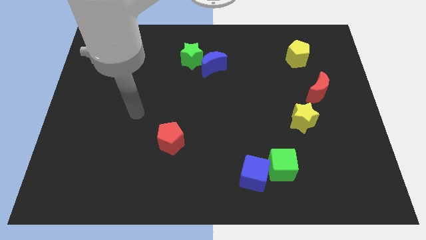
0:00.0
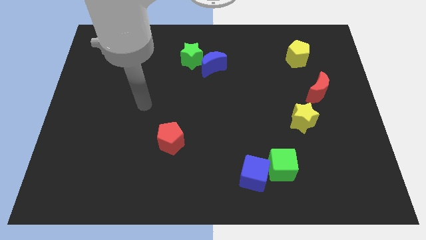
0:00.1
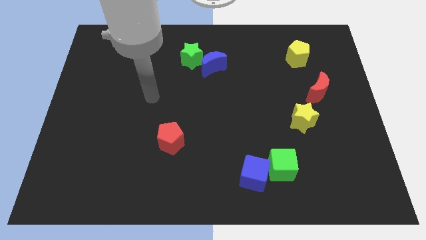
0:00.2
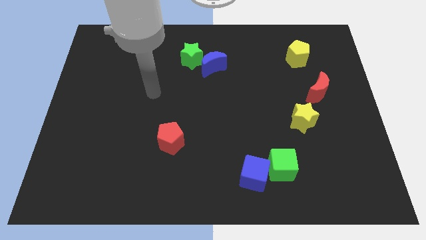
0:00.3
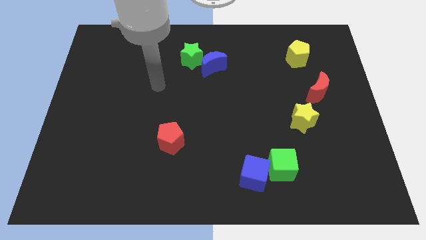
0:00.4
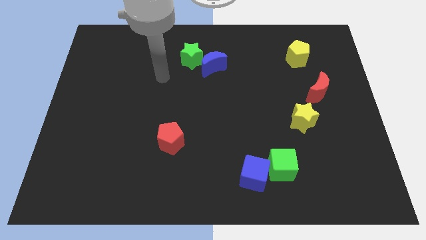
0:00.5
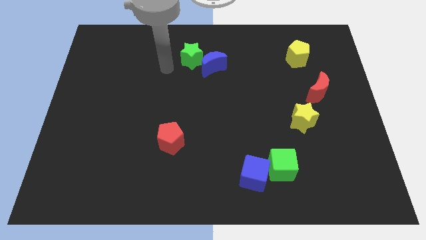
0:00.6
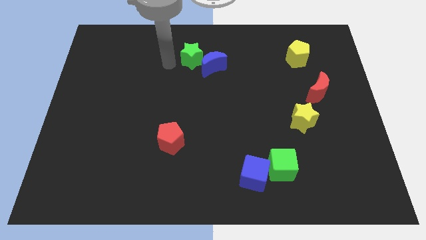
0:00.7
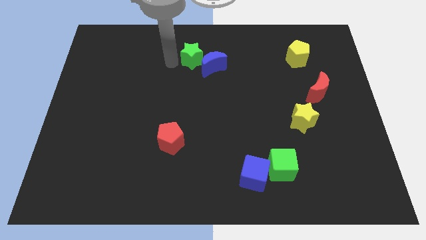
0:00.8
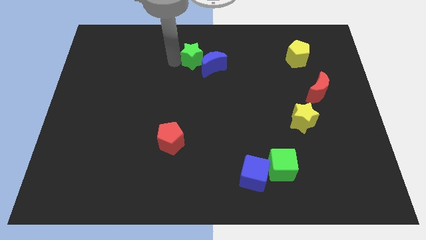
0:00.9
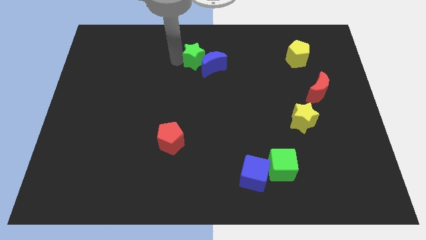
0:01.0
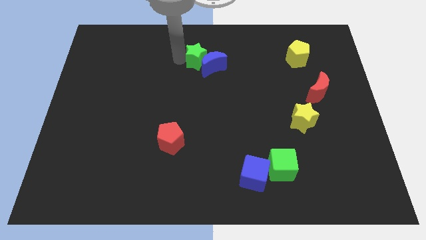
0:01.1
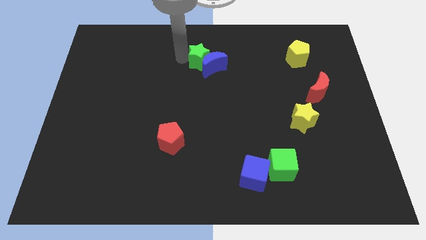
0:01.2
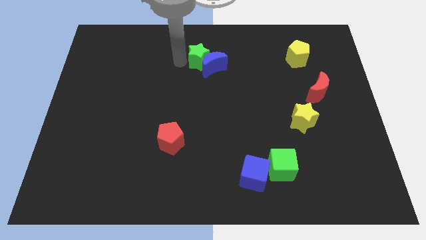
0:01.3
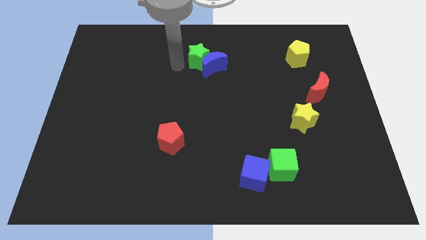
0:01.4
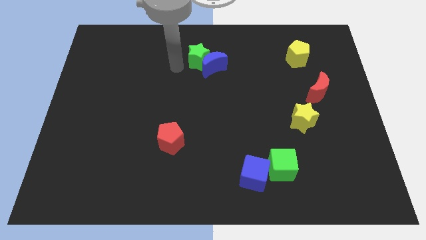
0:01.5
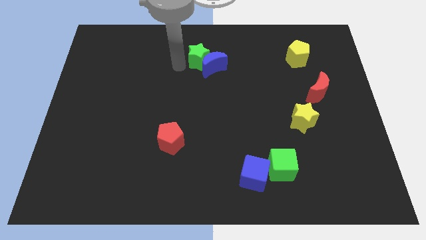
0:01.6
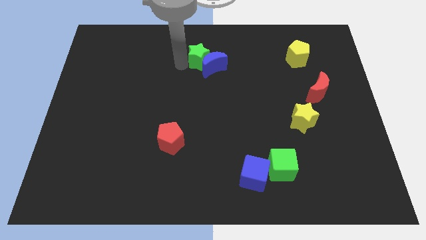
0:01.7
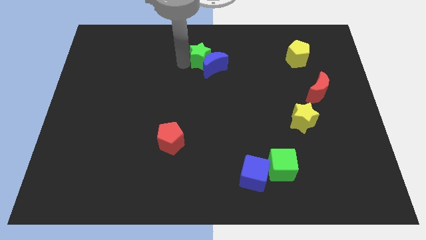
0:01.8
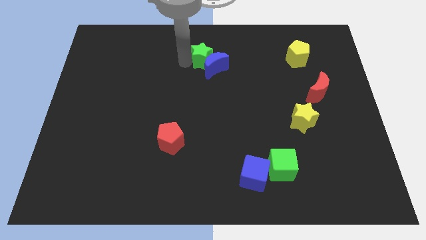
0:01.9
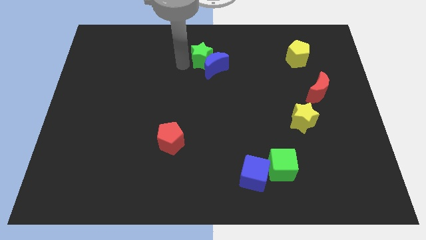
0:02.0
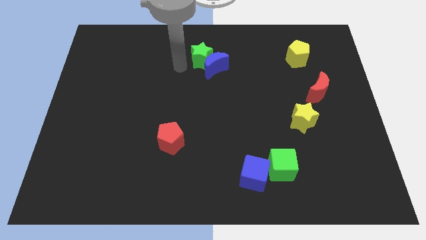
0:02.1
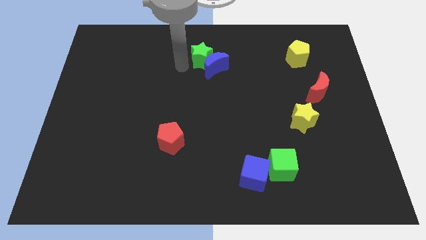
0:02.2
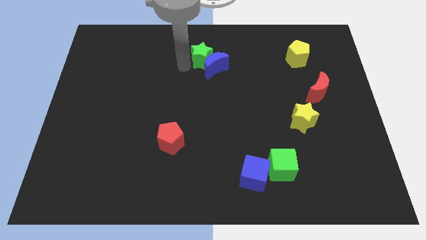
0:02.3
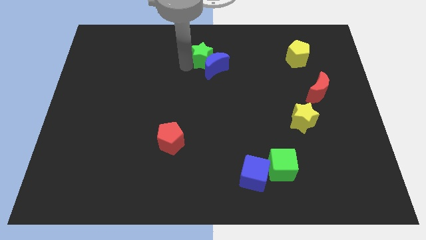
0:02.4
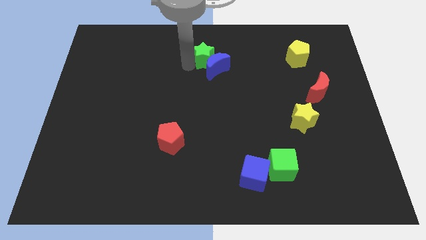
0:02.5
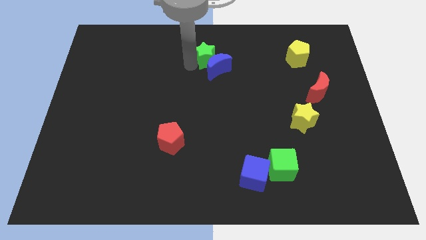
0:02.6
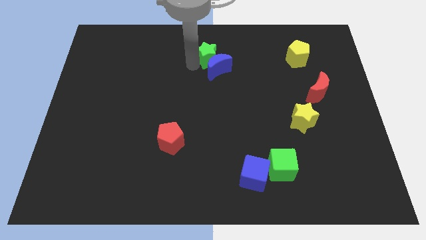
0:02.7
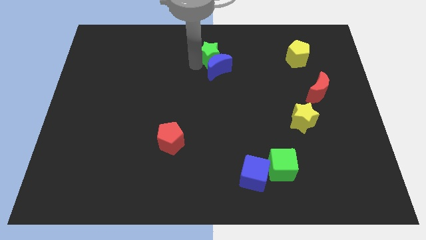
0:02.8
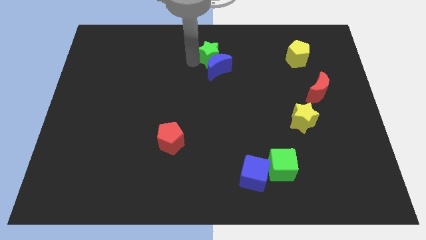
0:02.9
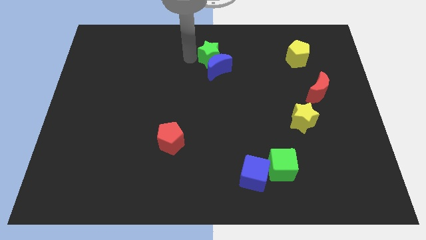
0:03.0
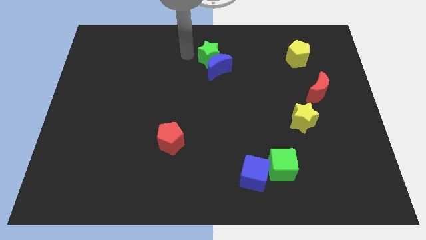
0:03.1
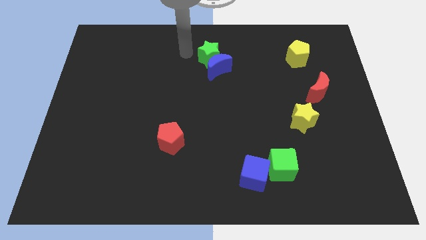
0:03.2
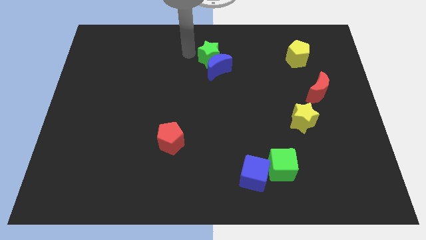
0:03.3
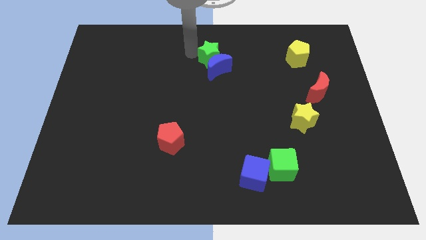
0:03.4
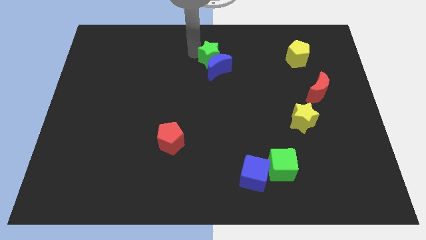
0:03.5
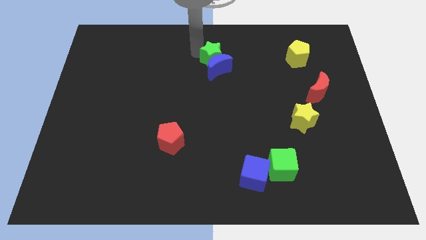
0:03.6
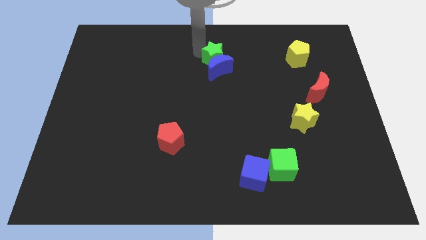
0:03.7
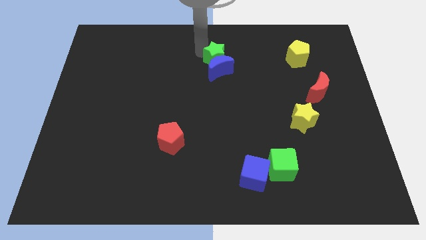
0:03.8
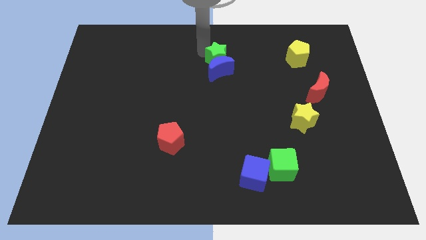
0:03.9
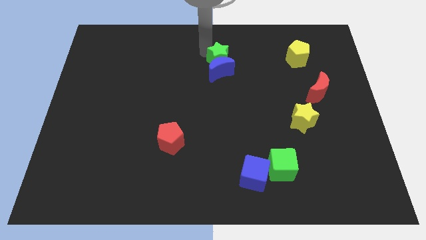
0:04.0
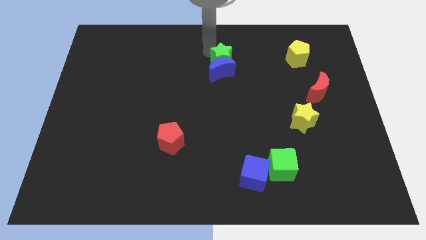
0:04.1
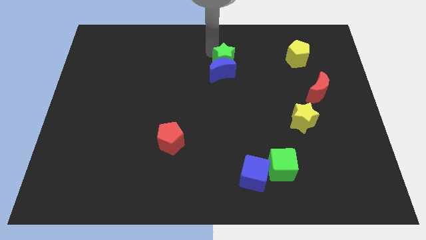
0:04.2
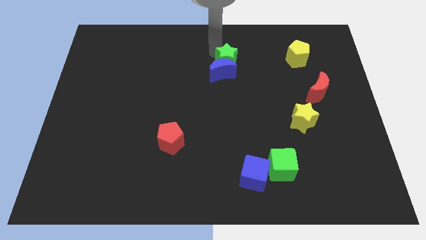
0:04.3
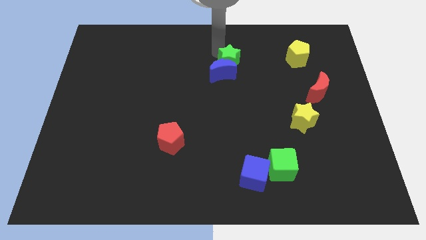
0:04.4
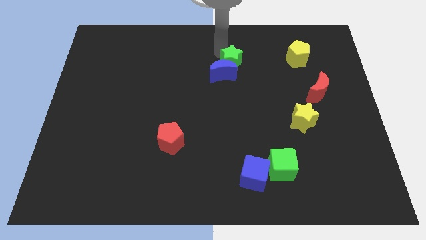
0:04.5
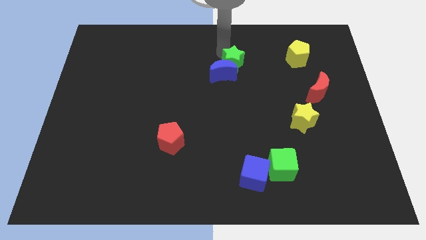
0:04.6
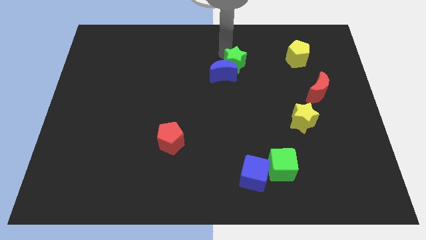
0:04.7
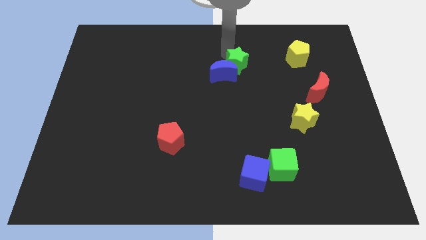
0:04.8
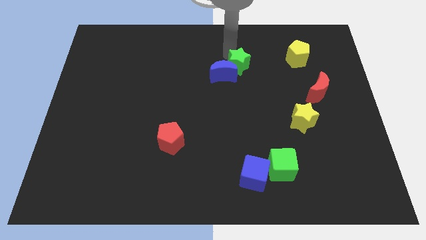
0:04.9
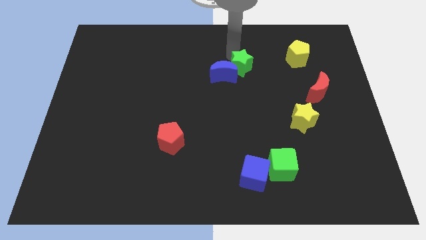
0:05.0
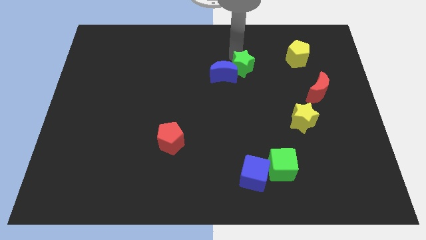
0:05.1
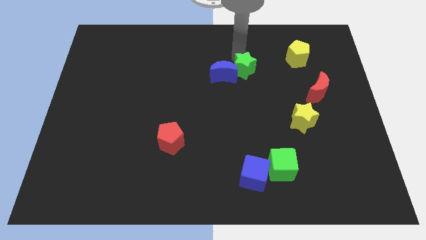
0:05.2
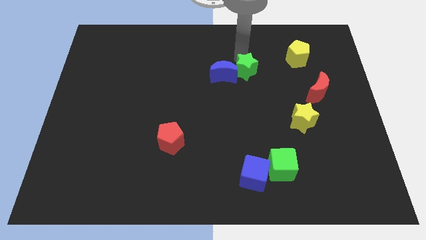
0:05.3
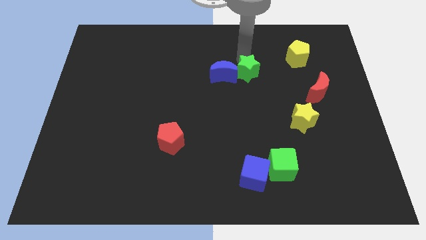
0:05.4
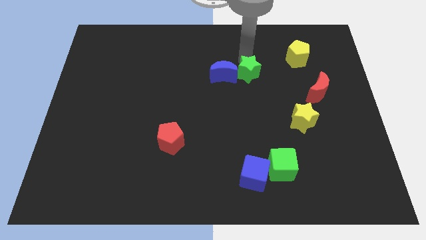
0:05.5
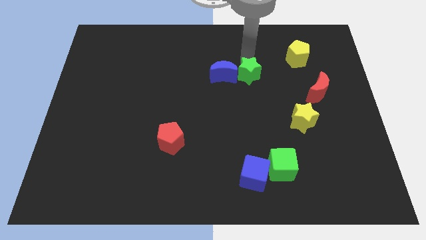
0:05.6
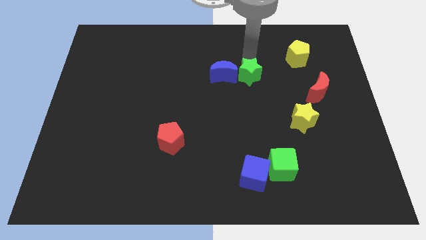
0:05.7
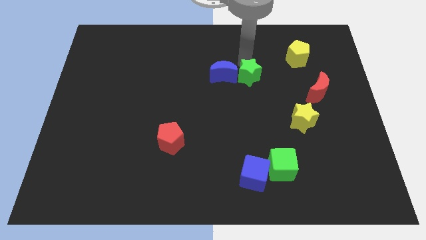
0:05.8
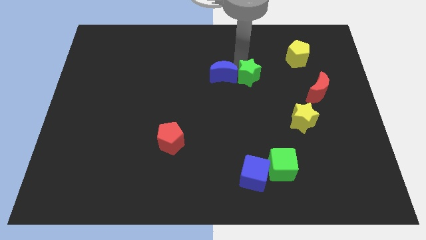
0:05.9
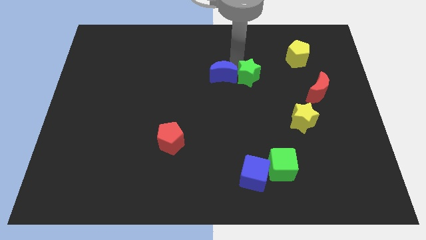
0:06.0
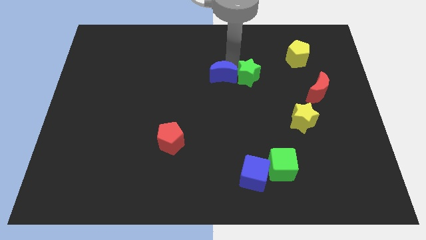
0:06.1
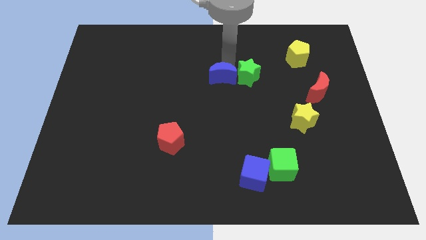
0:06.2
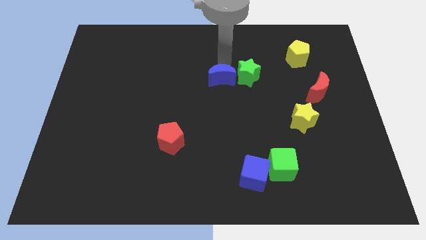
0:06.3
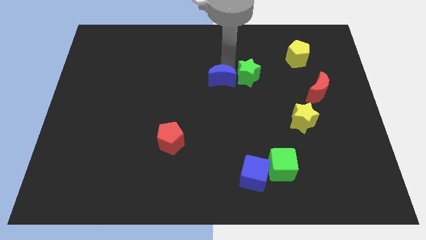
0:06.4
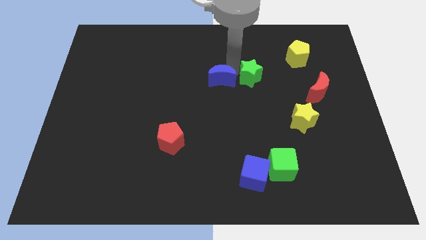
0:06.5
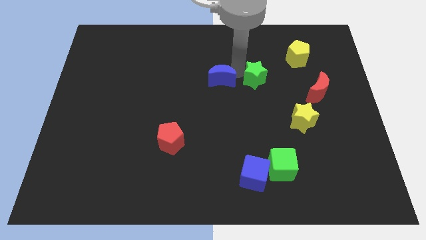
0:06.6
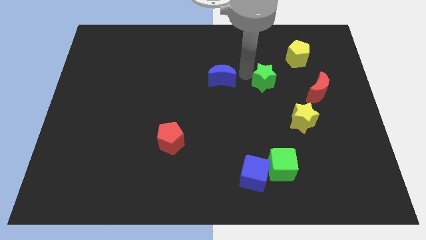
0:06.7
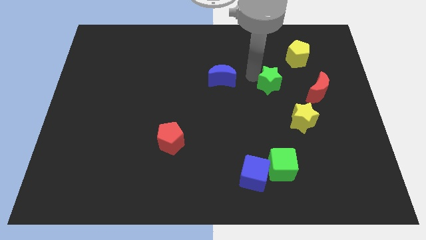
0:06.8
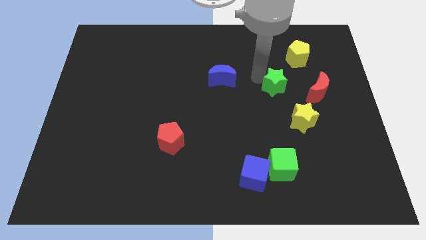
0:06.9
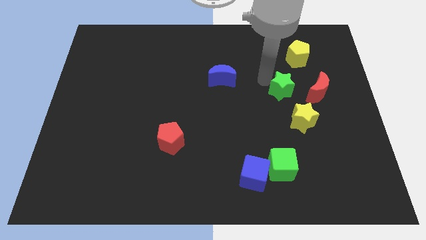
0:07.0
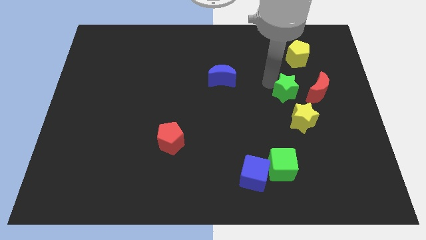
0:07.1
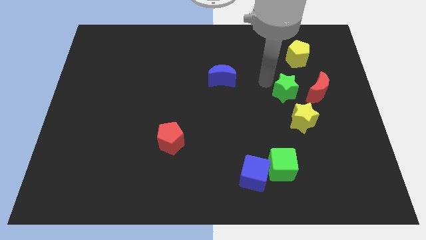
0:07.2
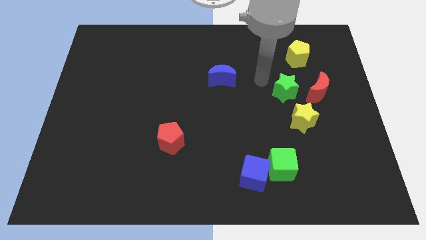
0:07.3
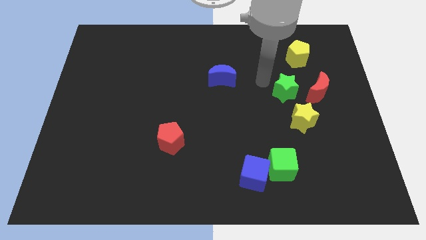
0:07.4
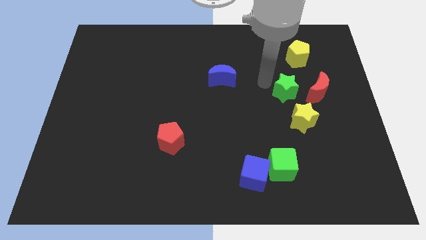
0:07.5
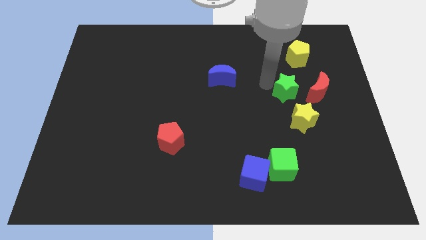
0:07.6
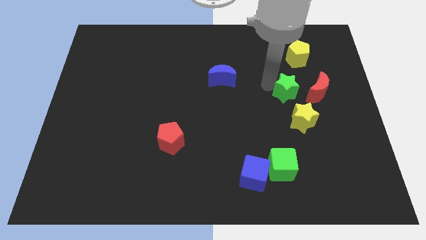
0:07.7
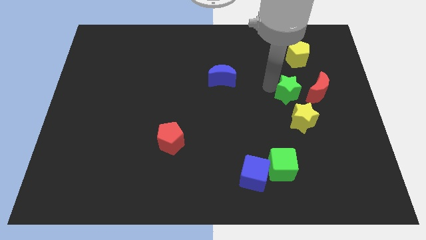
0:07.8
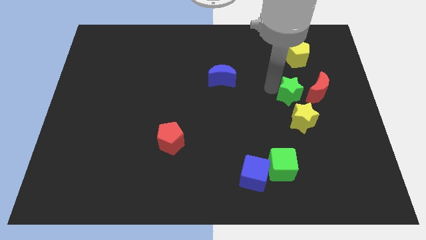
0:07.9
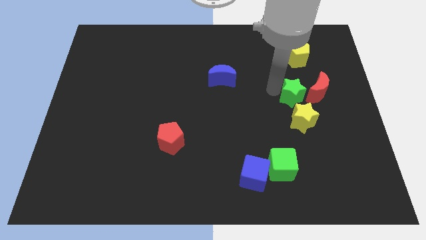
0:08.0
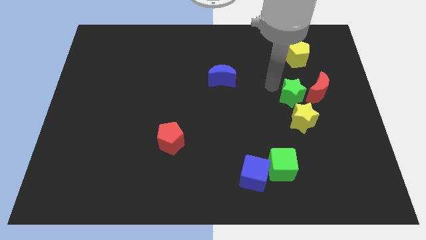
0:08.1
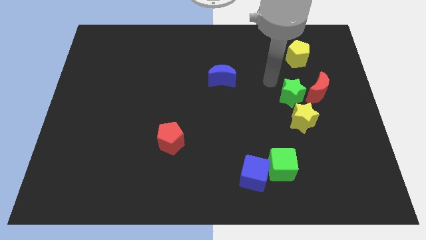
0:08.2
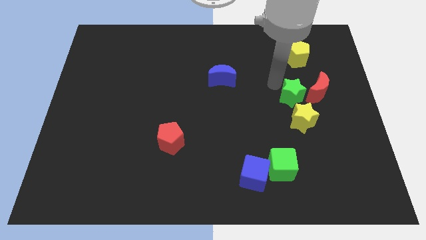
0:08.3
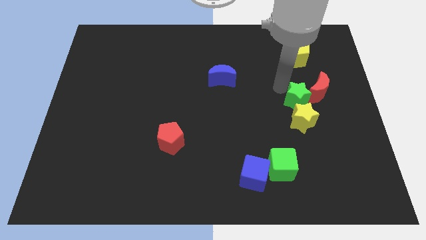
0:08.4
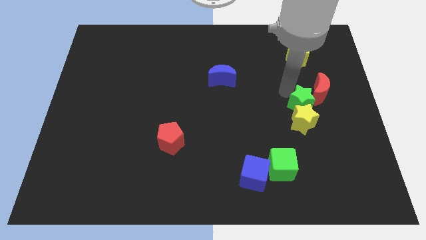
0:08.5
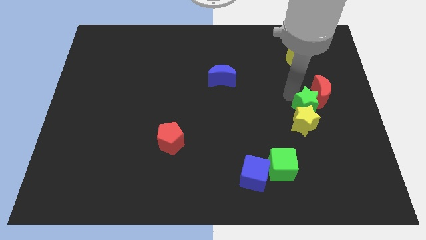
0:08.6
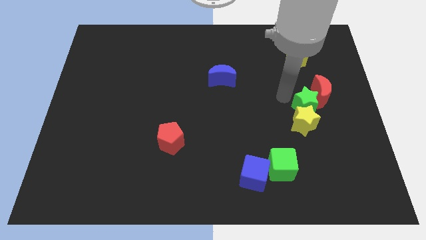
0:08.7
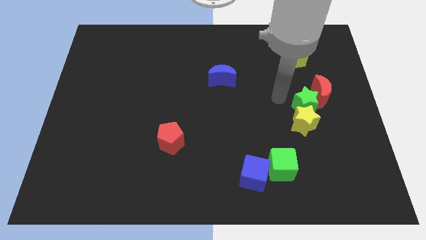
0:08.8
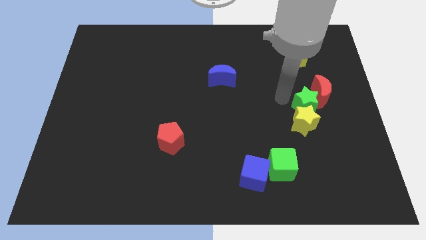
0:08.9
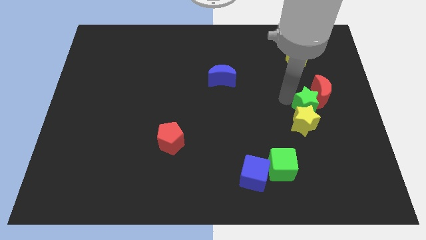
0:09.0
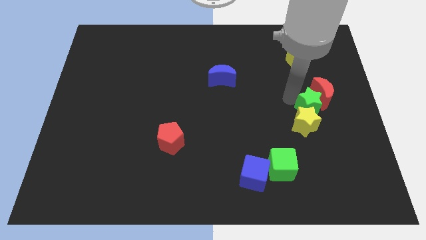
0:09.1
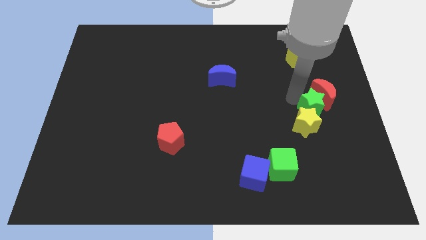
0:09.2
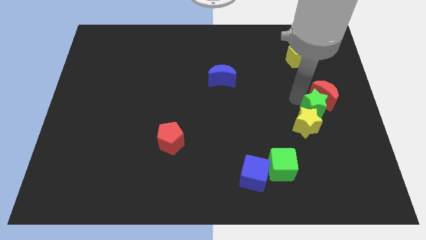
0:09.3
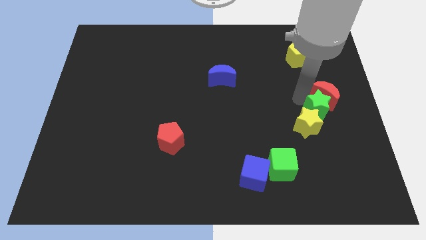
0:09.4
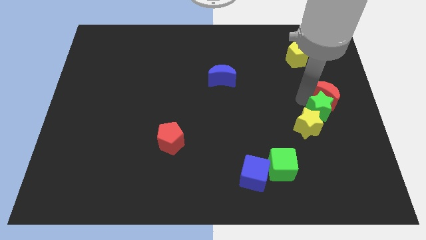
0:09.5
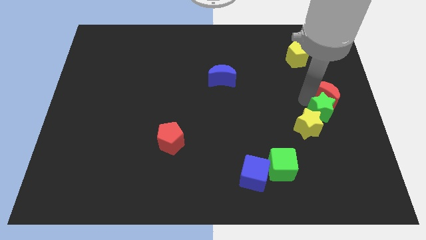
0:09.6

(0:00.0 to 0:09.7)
put the green star to the center right
